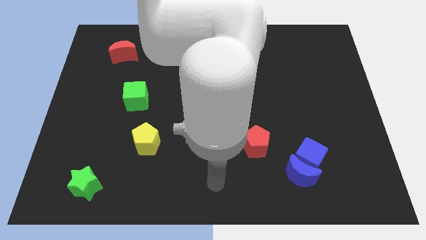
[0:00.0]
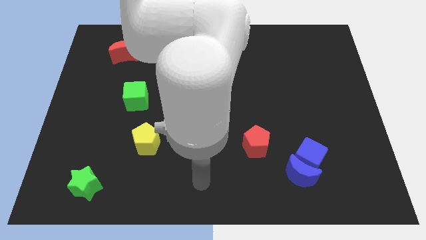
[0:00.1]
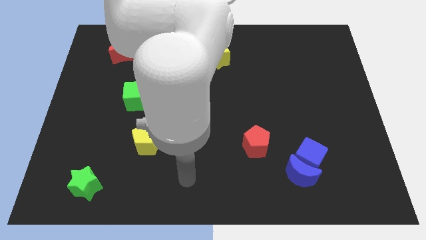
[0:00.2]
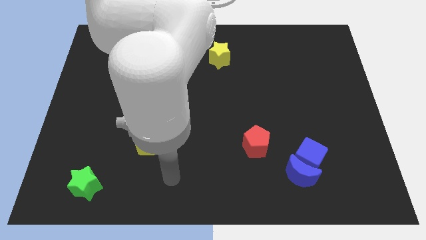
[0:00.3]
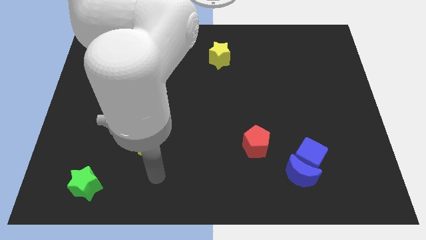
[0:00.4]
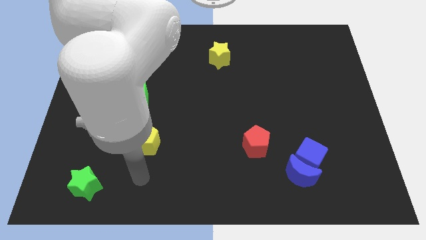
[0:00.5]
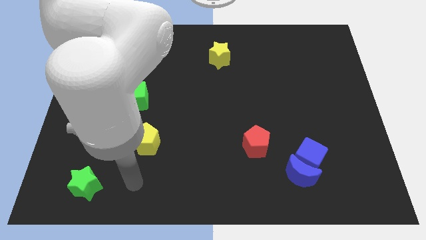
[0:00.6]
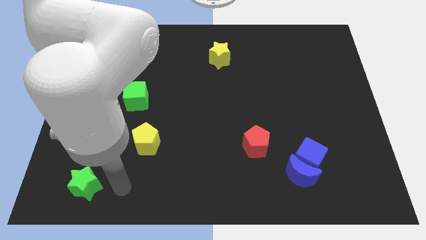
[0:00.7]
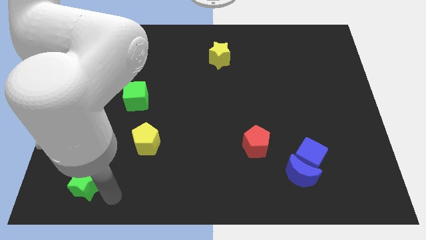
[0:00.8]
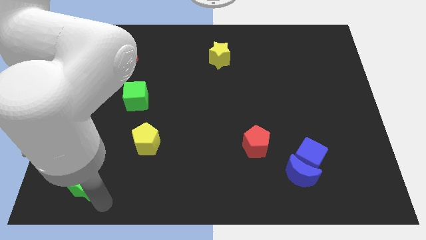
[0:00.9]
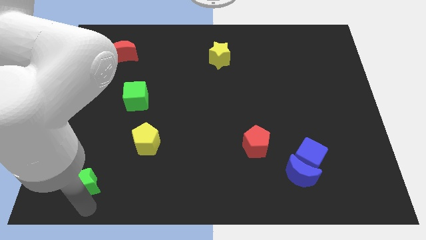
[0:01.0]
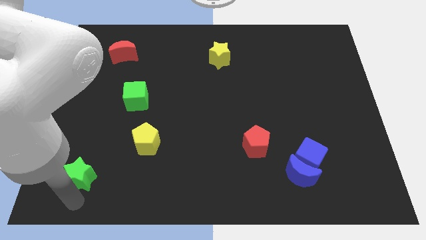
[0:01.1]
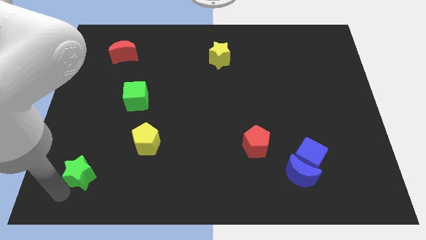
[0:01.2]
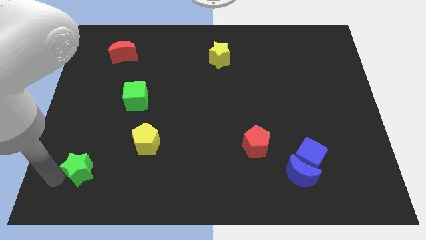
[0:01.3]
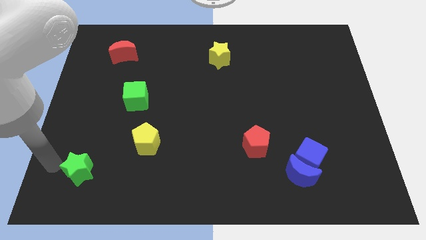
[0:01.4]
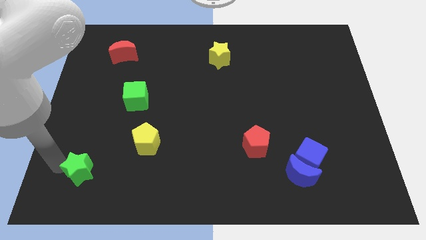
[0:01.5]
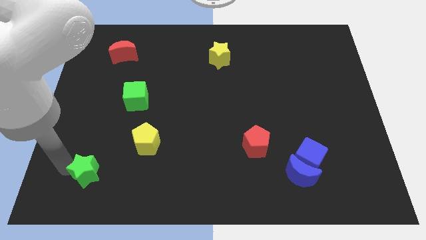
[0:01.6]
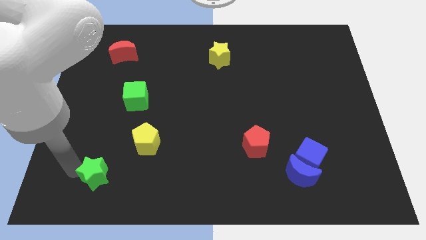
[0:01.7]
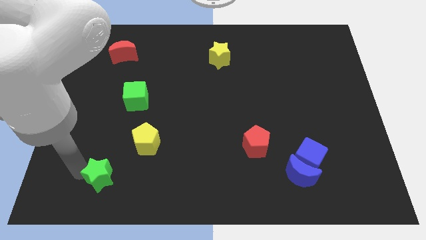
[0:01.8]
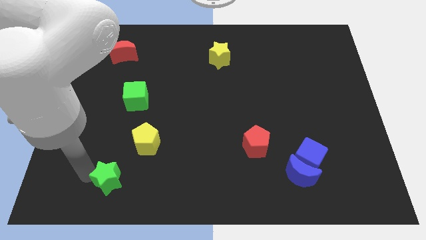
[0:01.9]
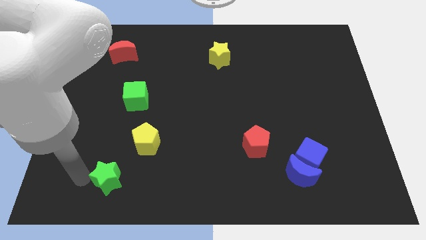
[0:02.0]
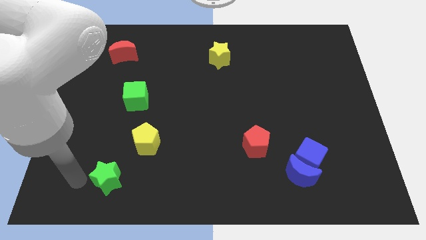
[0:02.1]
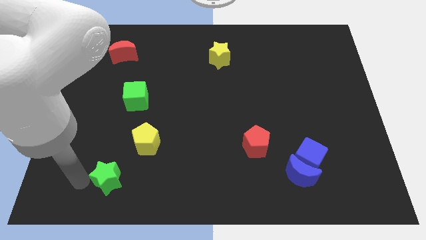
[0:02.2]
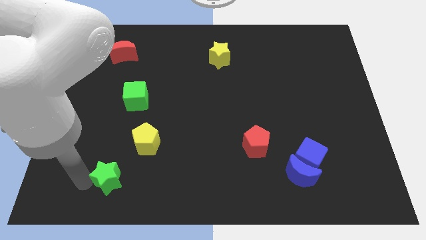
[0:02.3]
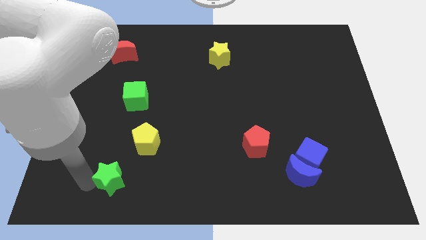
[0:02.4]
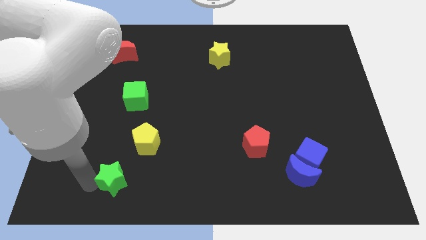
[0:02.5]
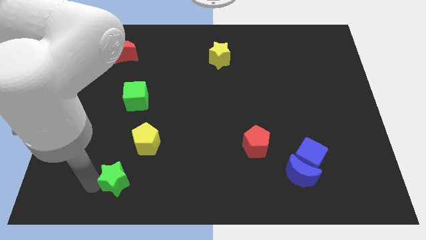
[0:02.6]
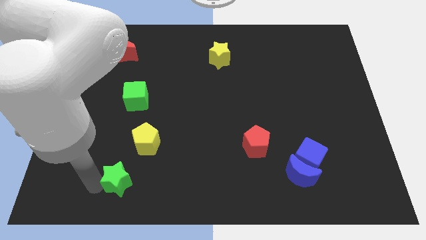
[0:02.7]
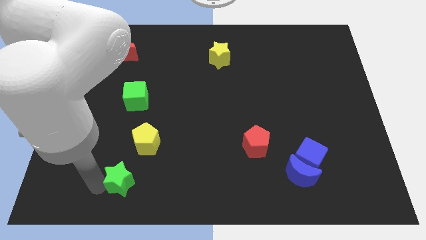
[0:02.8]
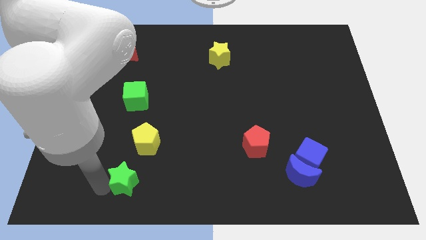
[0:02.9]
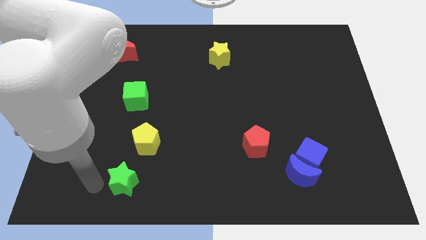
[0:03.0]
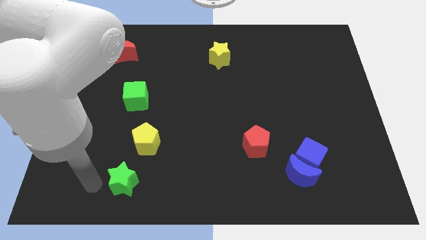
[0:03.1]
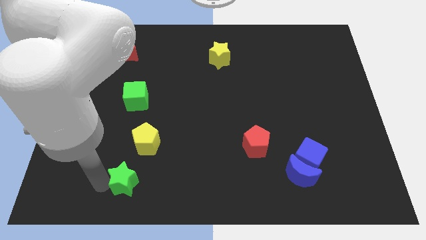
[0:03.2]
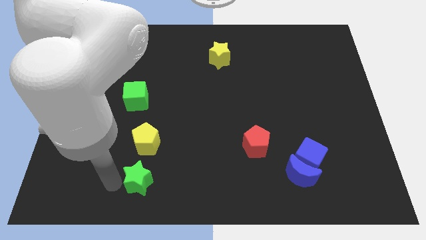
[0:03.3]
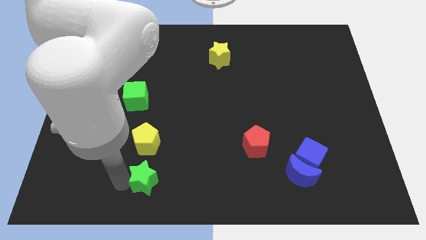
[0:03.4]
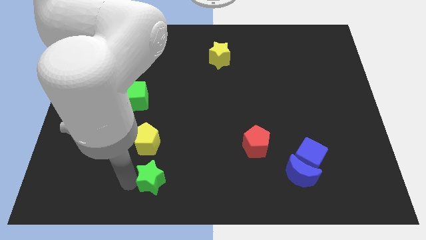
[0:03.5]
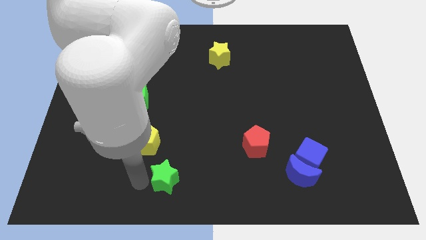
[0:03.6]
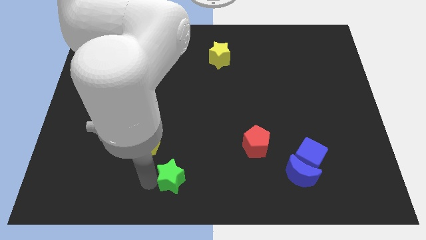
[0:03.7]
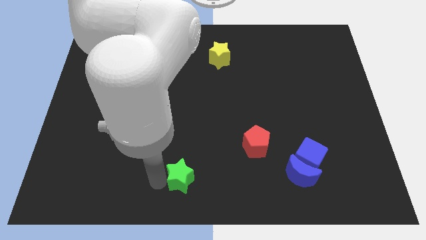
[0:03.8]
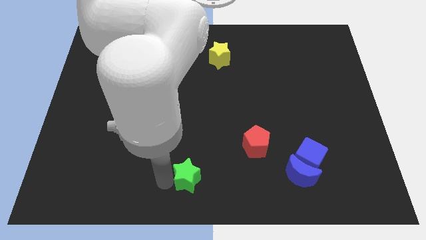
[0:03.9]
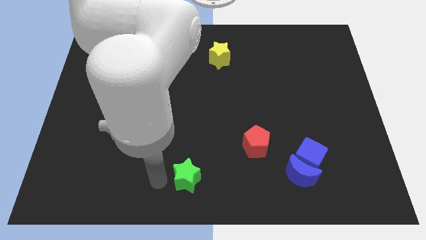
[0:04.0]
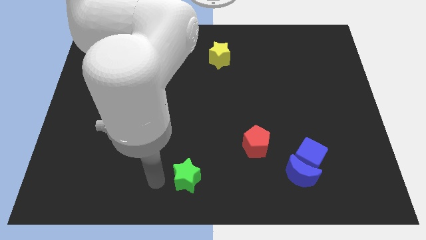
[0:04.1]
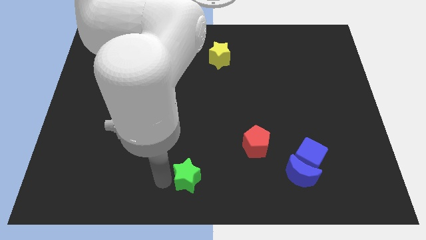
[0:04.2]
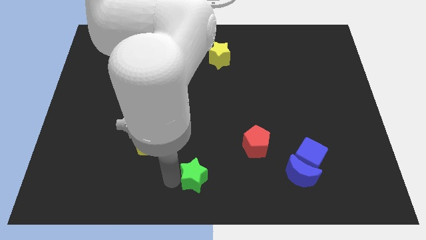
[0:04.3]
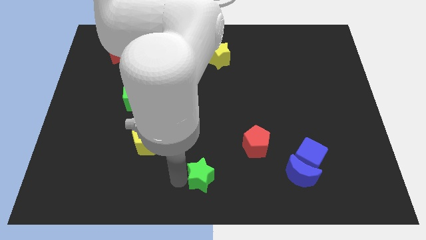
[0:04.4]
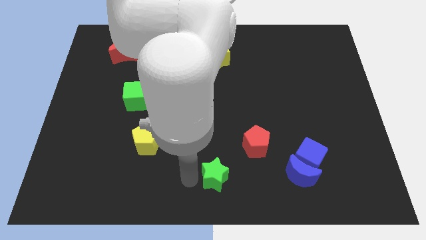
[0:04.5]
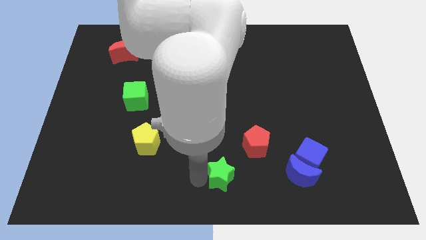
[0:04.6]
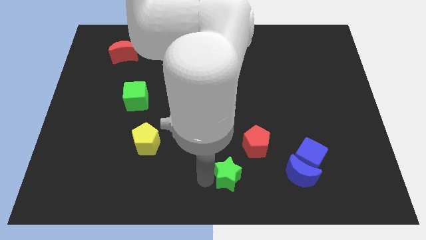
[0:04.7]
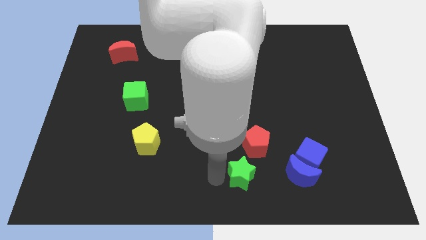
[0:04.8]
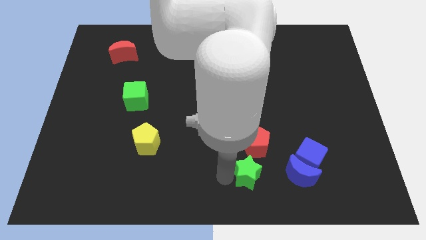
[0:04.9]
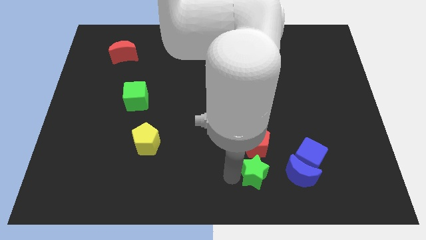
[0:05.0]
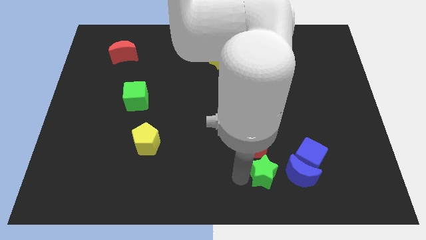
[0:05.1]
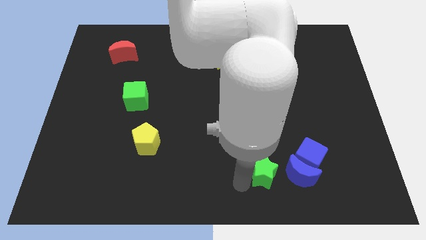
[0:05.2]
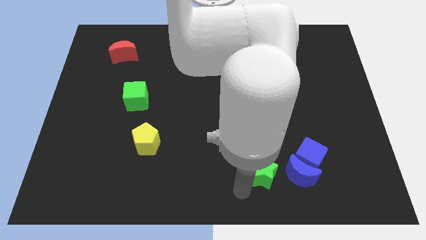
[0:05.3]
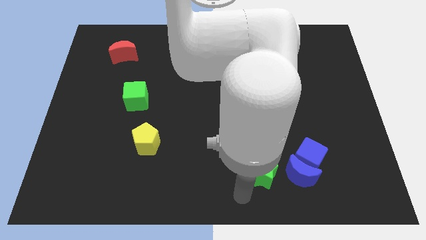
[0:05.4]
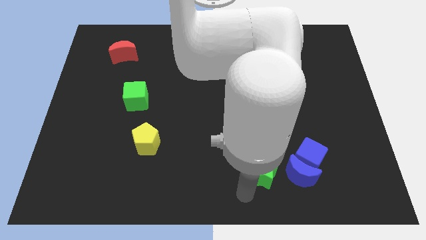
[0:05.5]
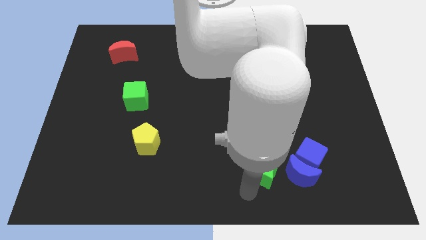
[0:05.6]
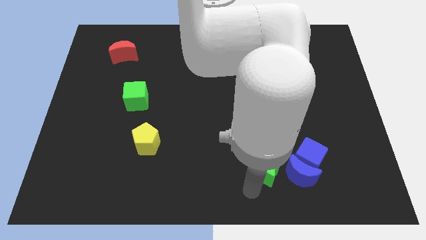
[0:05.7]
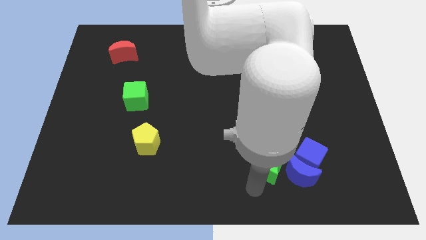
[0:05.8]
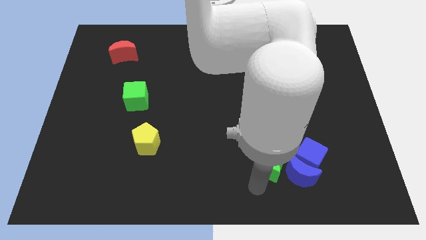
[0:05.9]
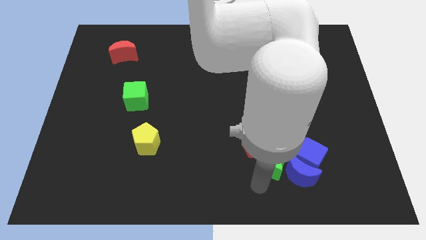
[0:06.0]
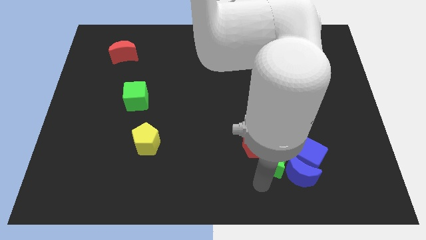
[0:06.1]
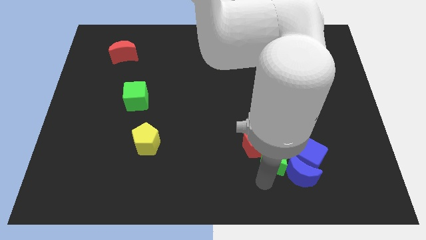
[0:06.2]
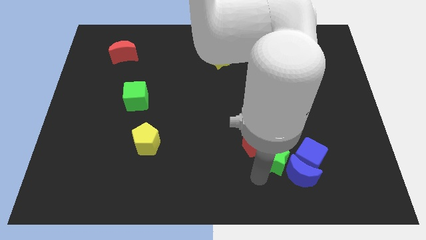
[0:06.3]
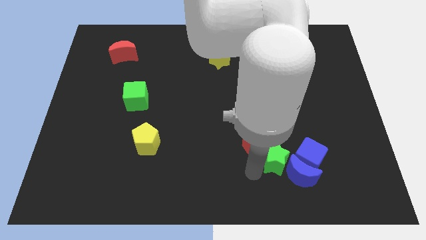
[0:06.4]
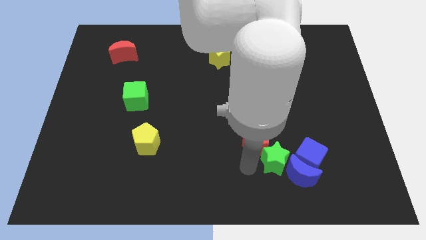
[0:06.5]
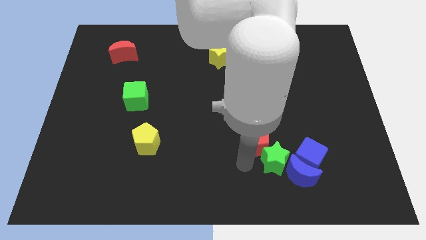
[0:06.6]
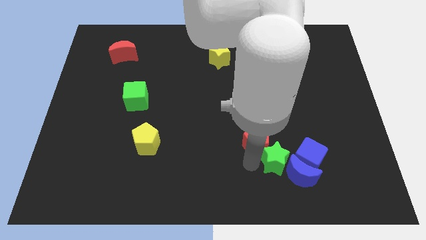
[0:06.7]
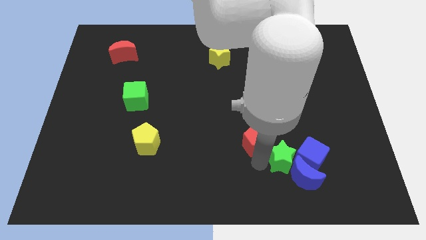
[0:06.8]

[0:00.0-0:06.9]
put the green star to the blue cube

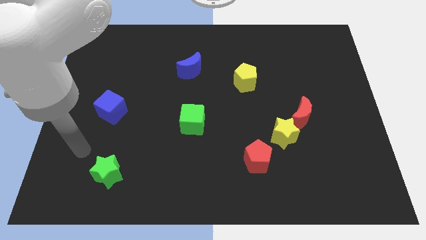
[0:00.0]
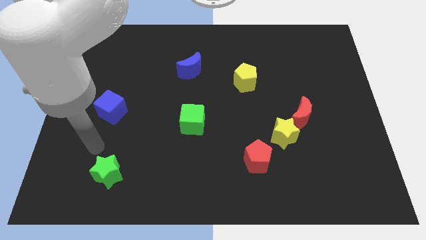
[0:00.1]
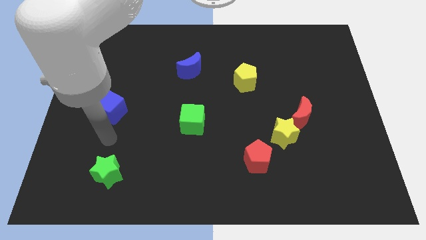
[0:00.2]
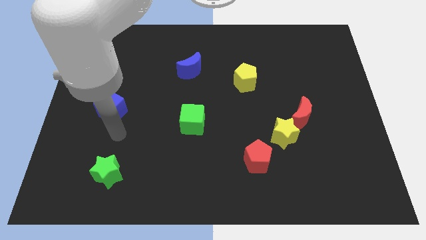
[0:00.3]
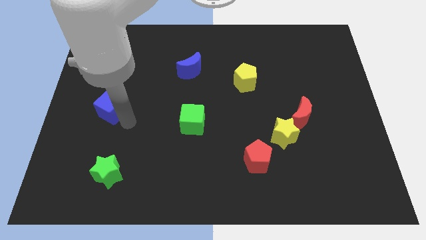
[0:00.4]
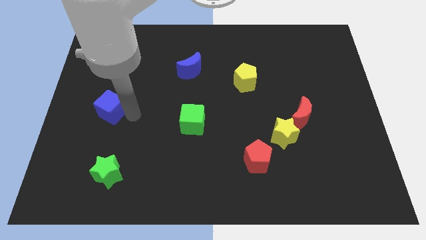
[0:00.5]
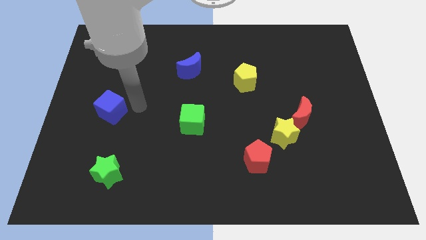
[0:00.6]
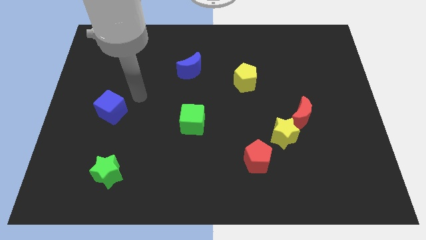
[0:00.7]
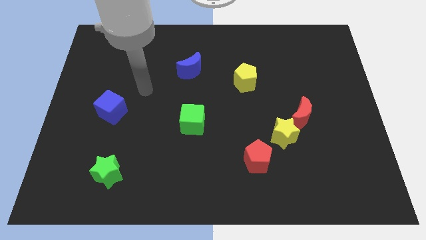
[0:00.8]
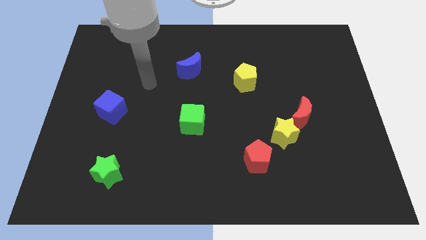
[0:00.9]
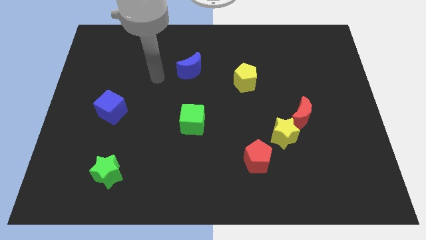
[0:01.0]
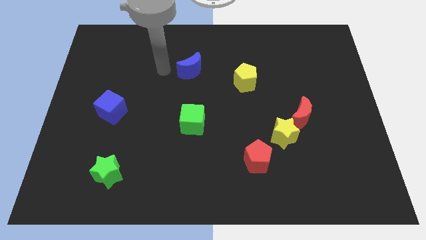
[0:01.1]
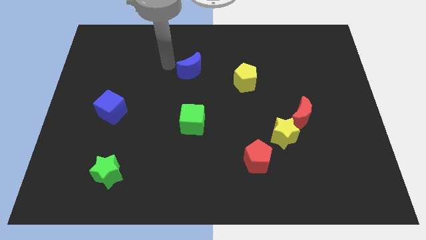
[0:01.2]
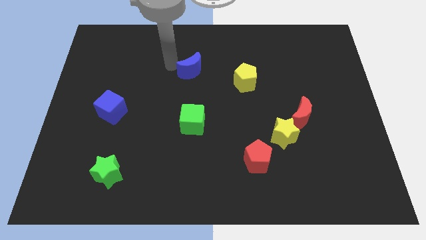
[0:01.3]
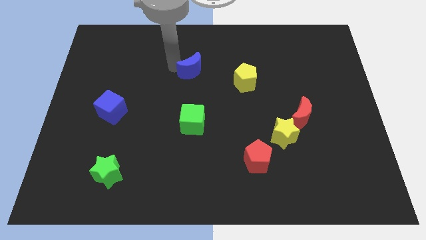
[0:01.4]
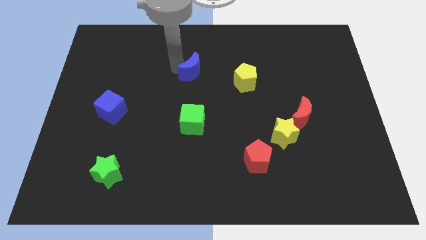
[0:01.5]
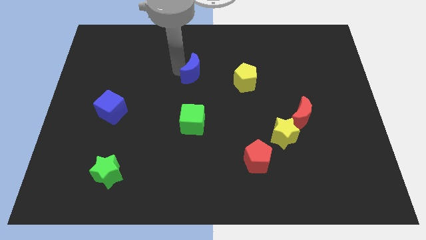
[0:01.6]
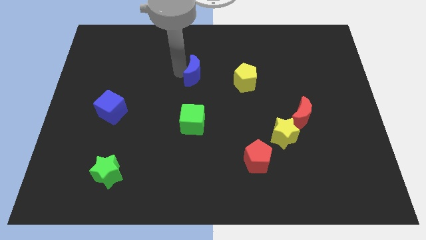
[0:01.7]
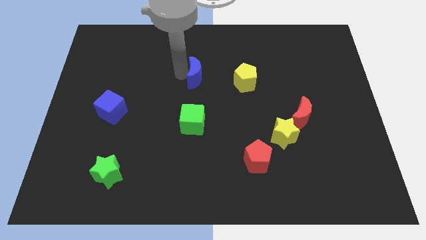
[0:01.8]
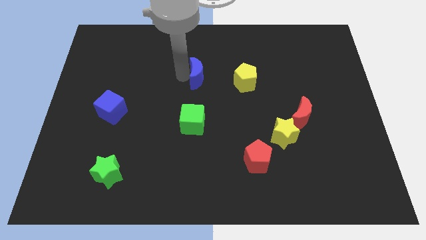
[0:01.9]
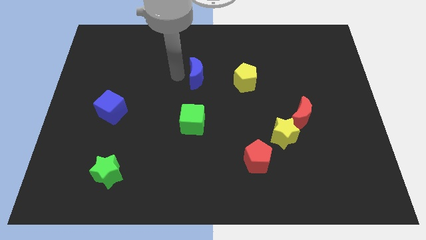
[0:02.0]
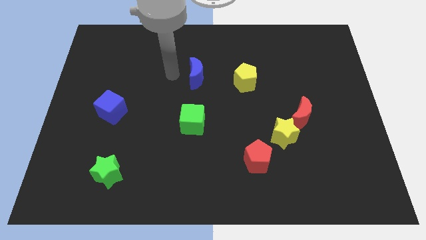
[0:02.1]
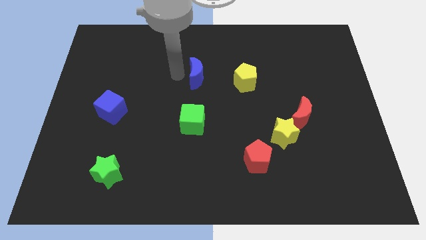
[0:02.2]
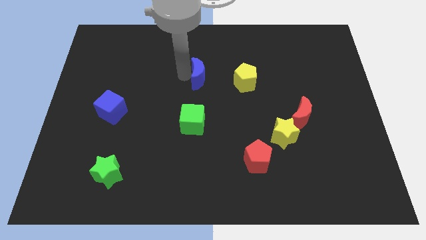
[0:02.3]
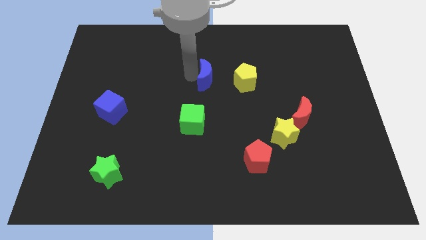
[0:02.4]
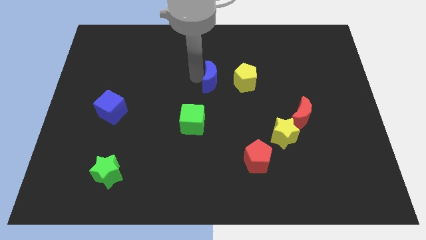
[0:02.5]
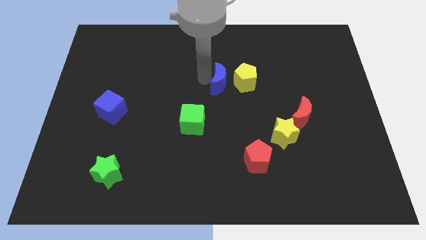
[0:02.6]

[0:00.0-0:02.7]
push the blue moon close to the yellow pentagon
